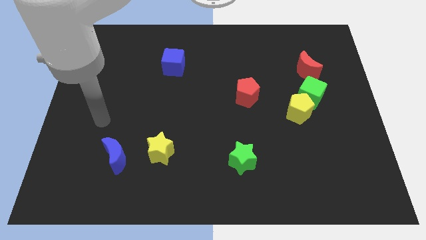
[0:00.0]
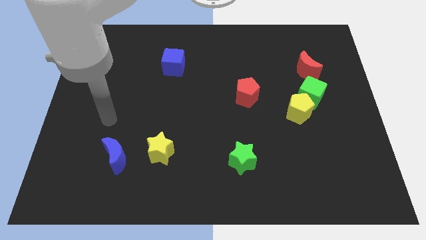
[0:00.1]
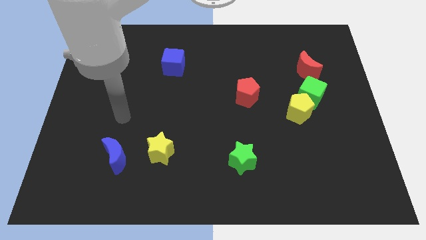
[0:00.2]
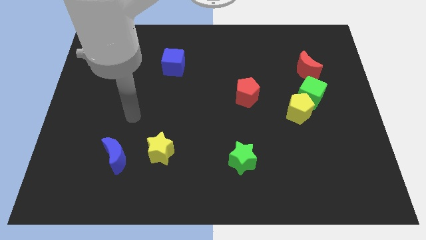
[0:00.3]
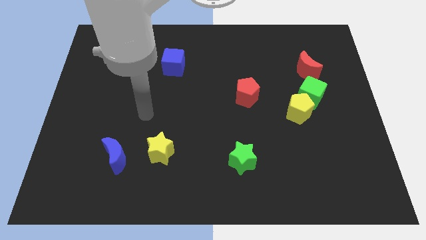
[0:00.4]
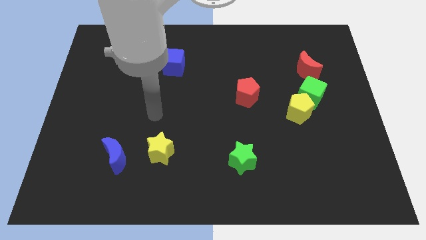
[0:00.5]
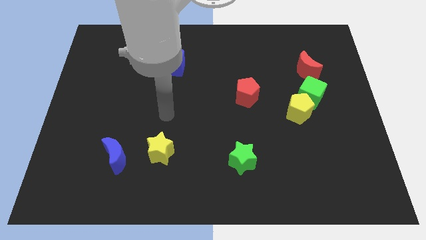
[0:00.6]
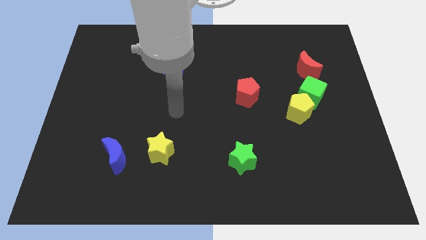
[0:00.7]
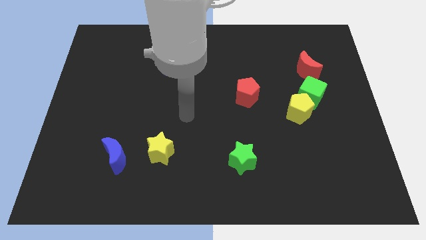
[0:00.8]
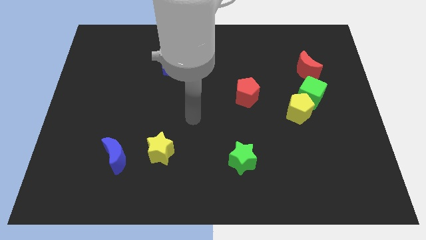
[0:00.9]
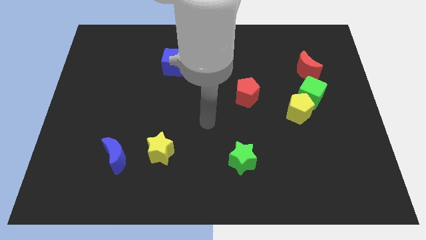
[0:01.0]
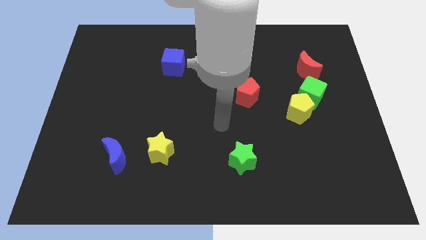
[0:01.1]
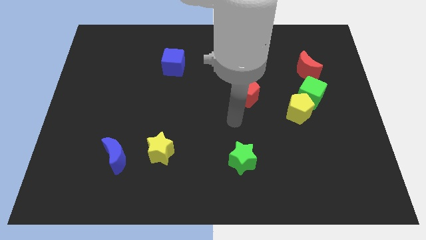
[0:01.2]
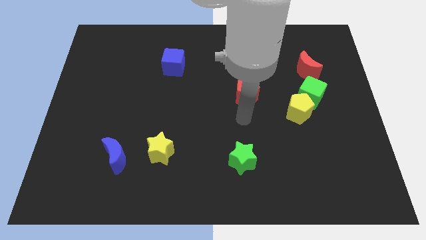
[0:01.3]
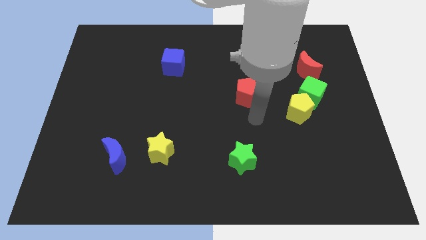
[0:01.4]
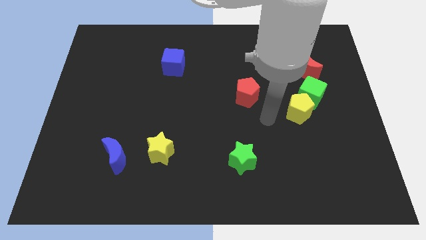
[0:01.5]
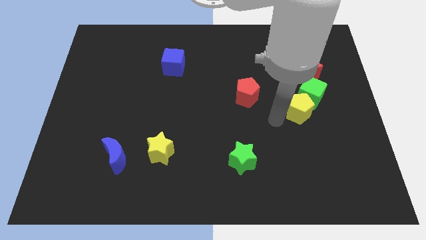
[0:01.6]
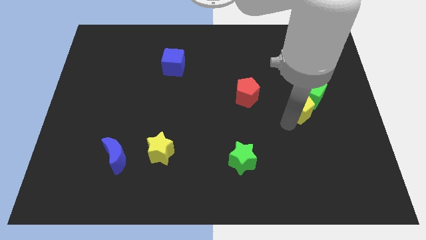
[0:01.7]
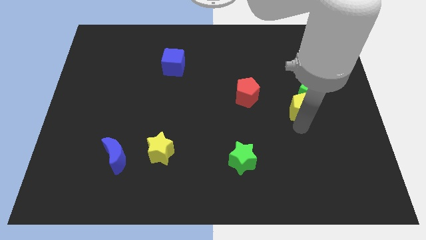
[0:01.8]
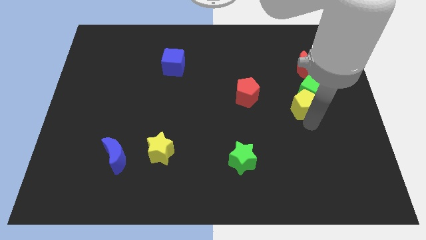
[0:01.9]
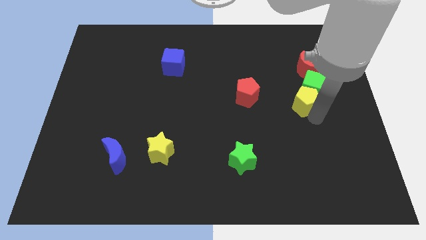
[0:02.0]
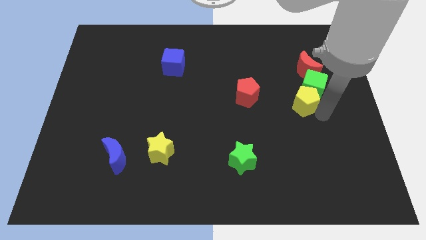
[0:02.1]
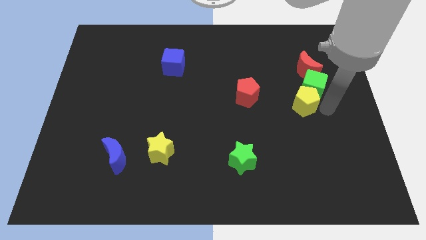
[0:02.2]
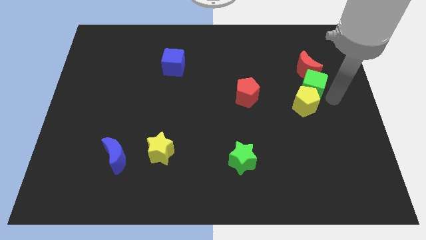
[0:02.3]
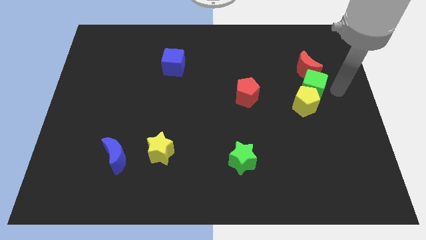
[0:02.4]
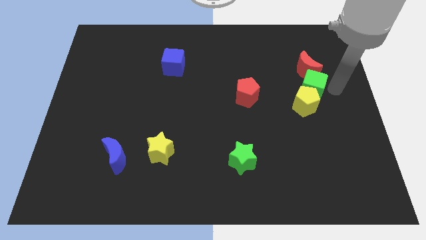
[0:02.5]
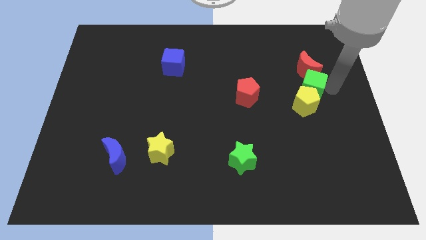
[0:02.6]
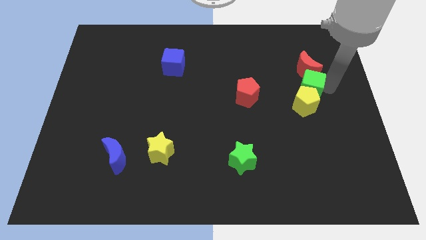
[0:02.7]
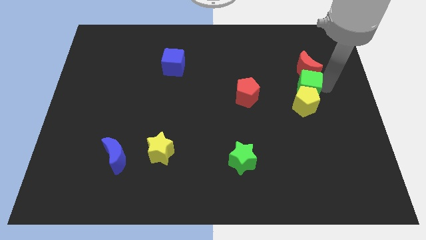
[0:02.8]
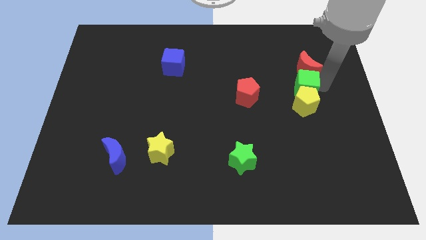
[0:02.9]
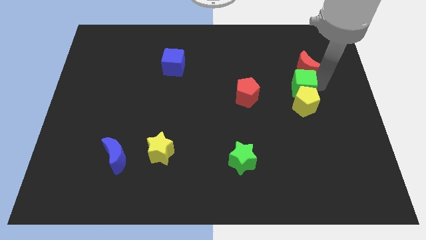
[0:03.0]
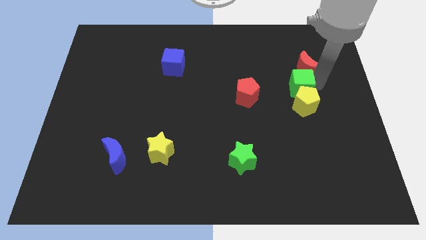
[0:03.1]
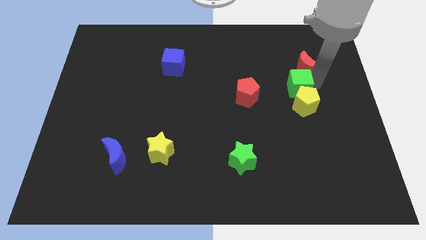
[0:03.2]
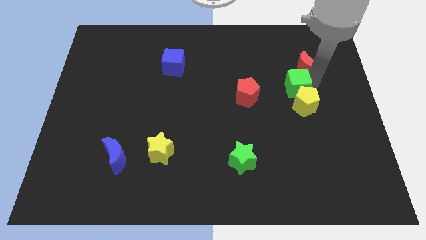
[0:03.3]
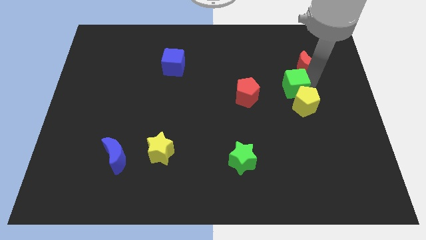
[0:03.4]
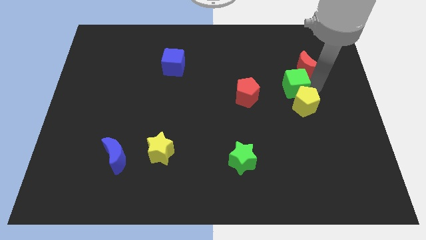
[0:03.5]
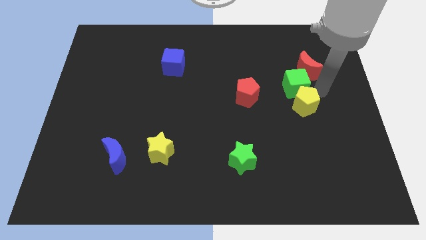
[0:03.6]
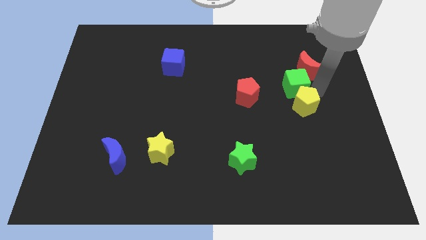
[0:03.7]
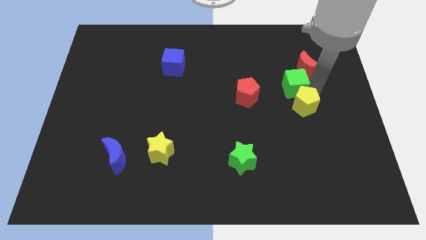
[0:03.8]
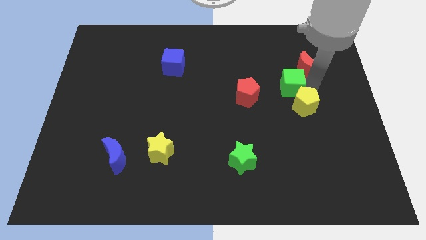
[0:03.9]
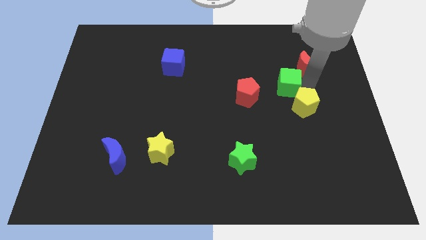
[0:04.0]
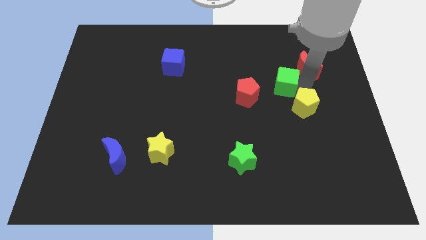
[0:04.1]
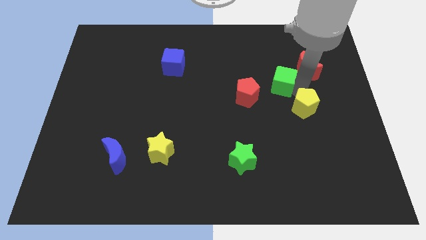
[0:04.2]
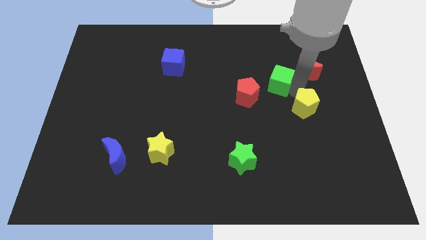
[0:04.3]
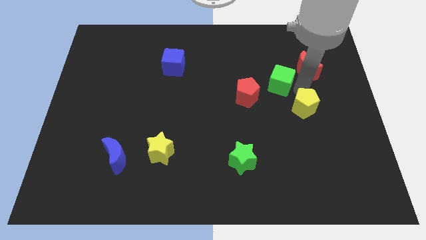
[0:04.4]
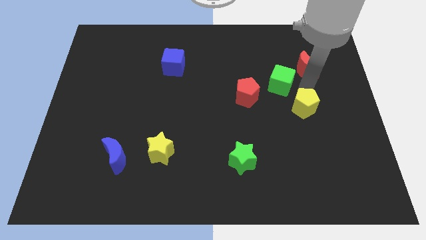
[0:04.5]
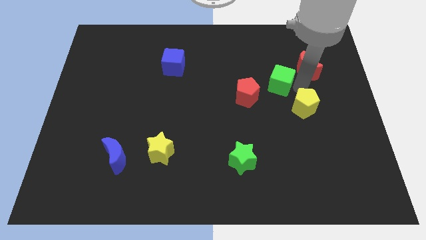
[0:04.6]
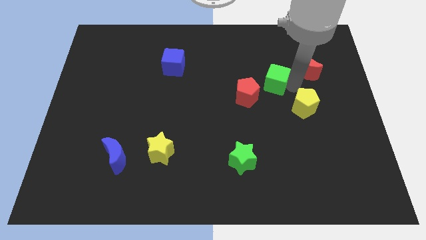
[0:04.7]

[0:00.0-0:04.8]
slightly move the green cube to the left

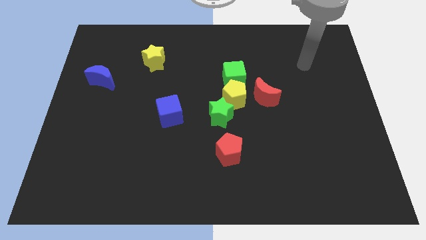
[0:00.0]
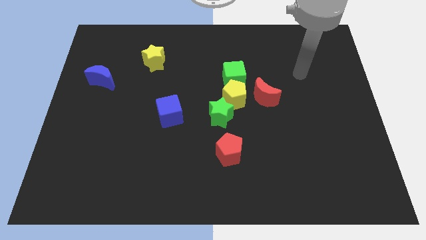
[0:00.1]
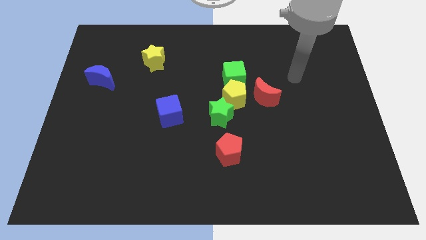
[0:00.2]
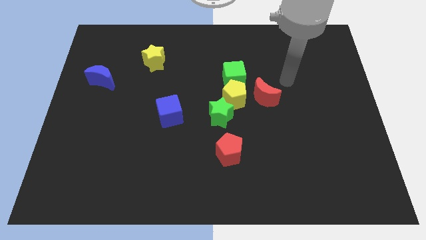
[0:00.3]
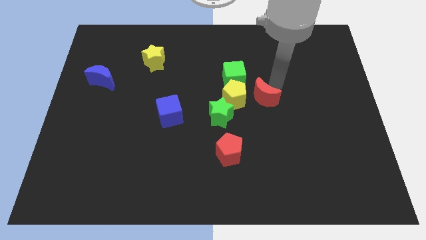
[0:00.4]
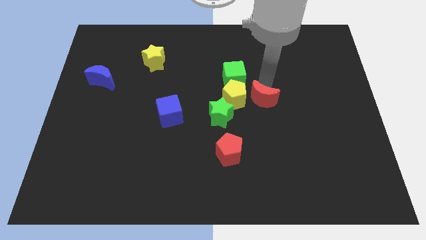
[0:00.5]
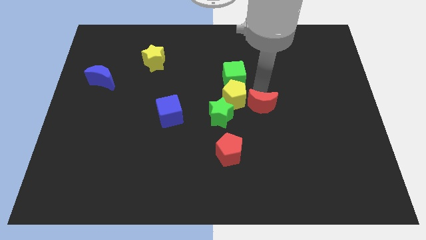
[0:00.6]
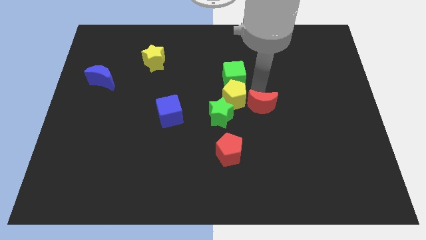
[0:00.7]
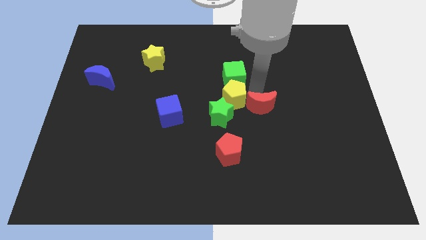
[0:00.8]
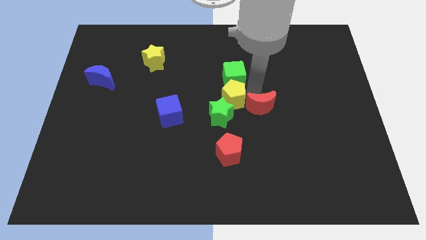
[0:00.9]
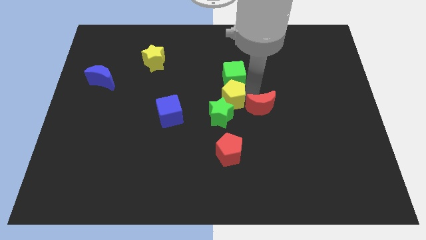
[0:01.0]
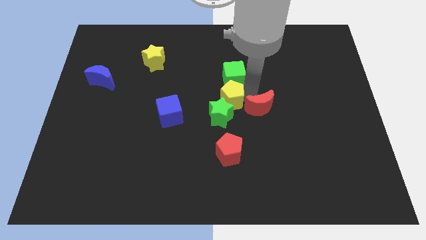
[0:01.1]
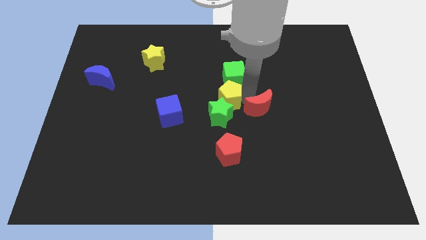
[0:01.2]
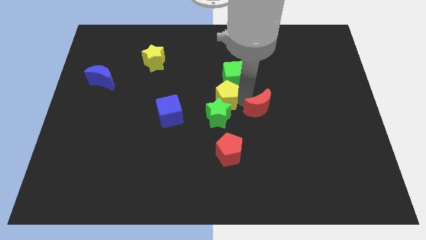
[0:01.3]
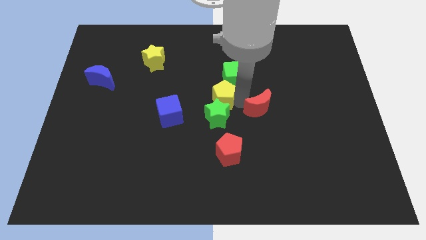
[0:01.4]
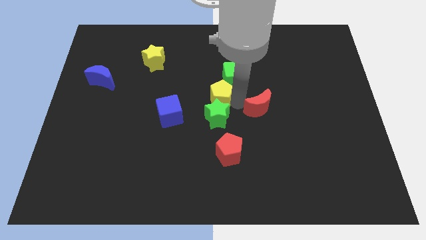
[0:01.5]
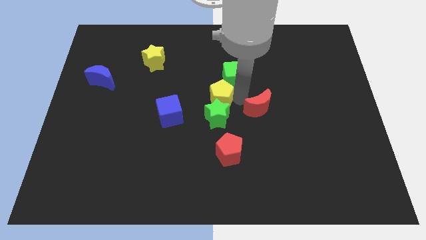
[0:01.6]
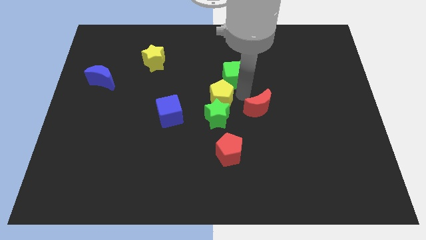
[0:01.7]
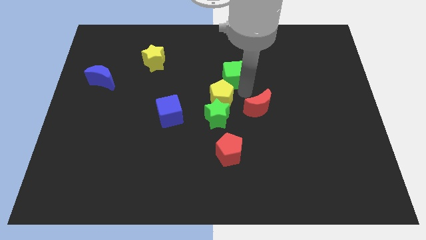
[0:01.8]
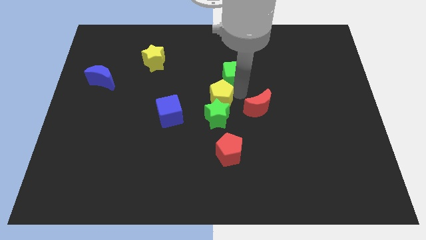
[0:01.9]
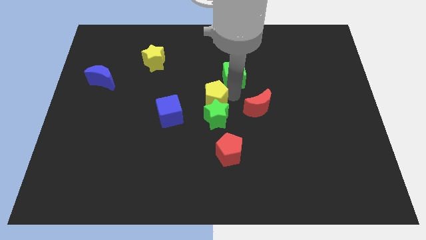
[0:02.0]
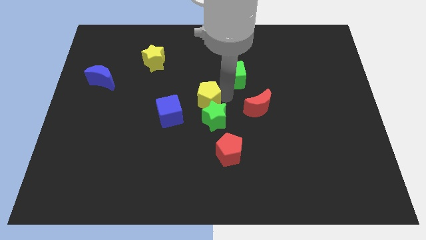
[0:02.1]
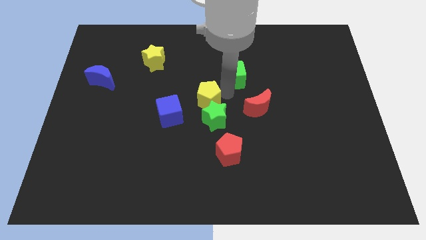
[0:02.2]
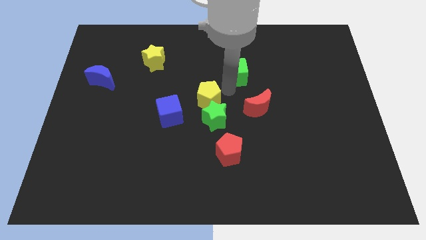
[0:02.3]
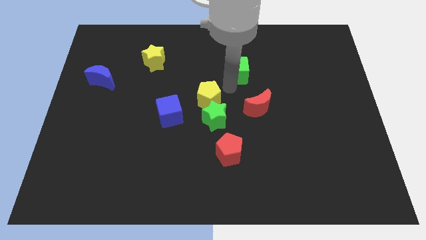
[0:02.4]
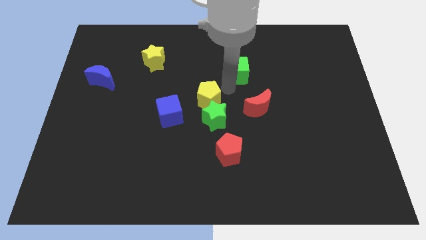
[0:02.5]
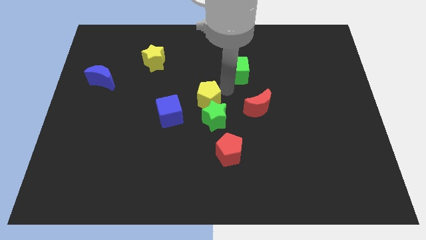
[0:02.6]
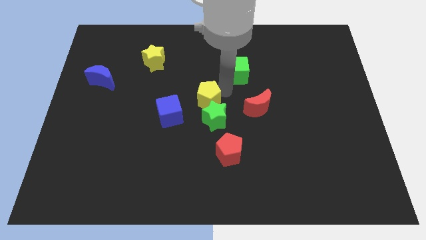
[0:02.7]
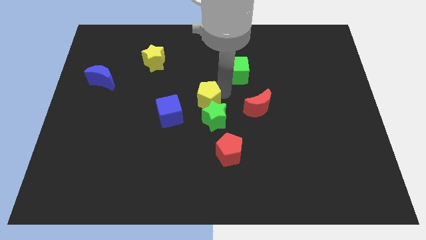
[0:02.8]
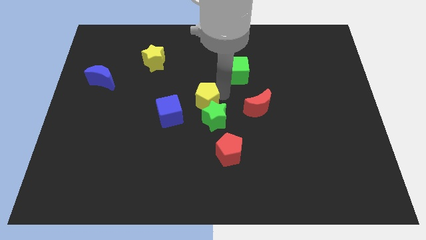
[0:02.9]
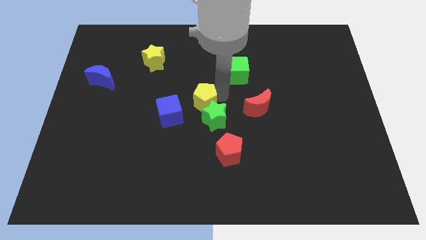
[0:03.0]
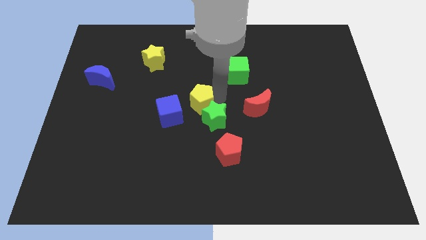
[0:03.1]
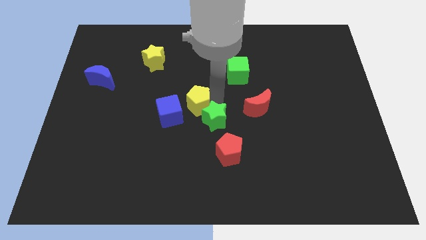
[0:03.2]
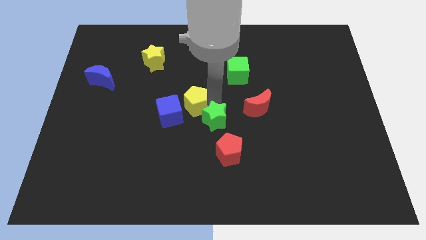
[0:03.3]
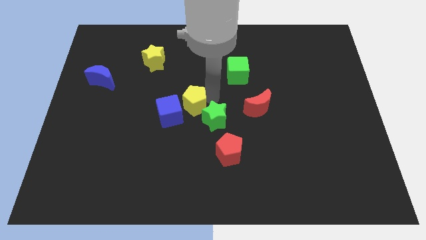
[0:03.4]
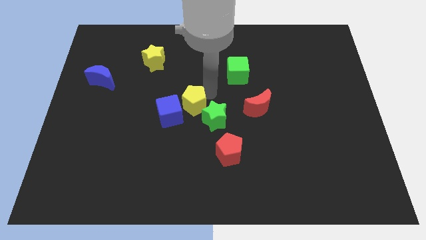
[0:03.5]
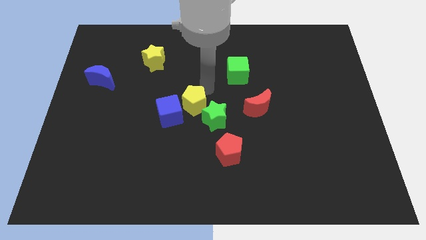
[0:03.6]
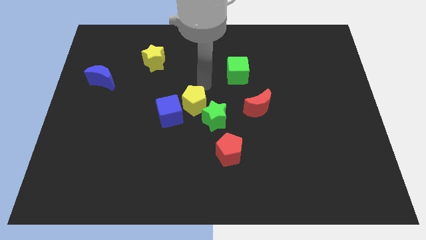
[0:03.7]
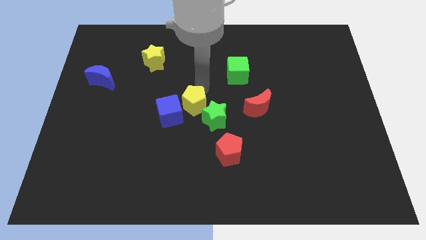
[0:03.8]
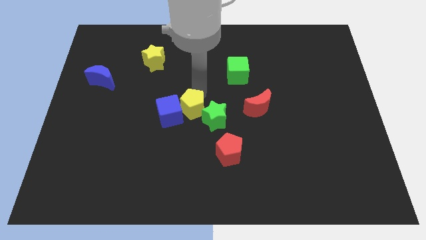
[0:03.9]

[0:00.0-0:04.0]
slightly slide the yellow pentagon diagonally downwards and left
